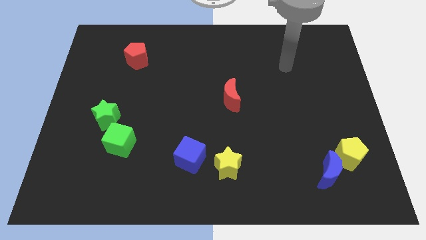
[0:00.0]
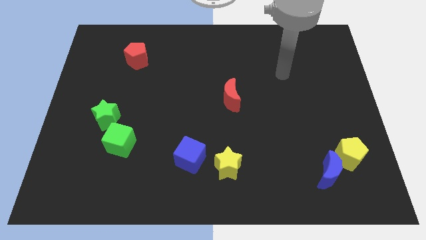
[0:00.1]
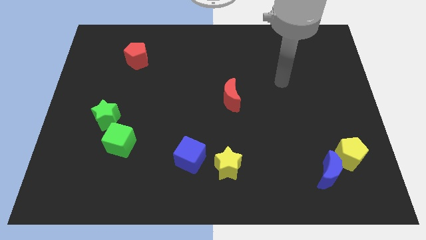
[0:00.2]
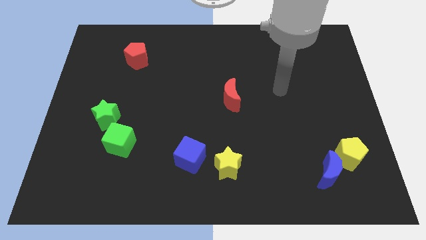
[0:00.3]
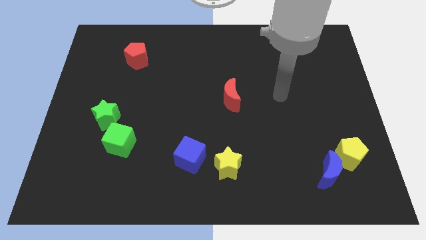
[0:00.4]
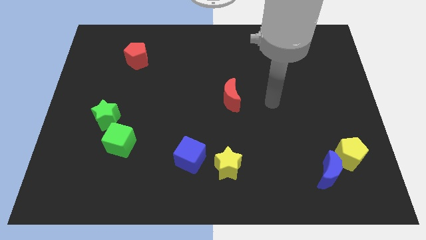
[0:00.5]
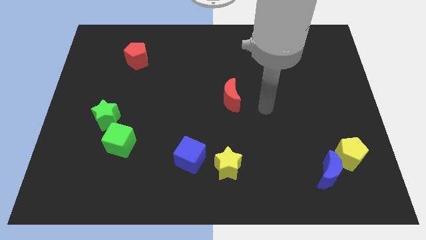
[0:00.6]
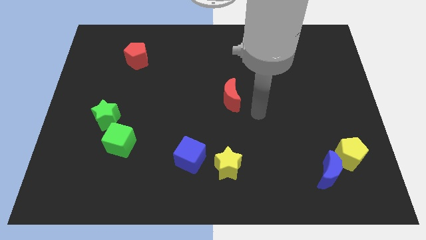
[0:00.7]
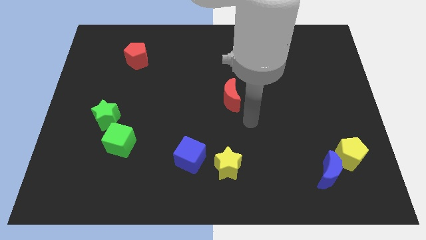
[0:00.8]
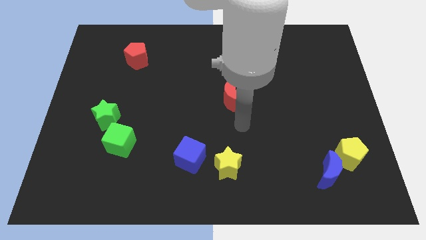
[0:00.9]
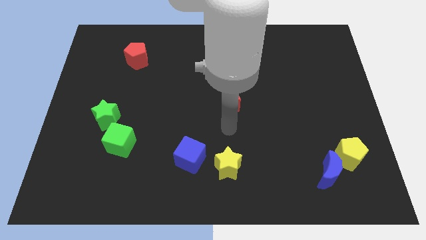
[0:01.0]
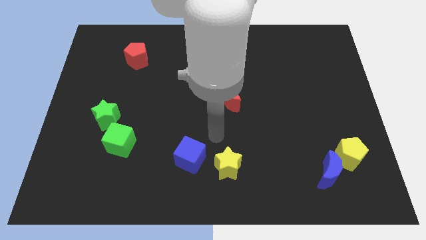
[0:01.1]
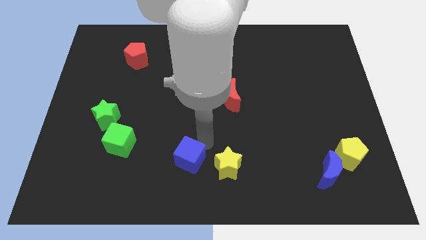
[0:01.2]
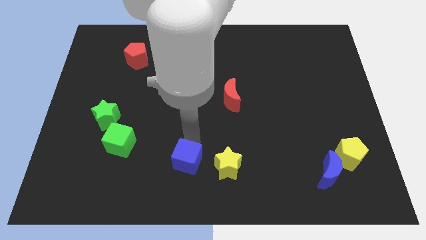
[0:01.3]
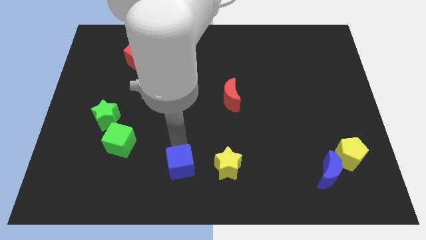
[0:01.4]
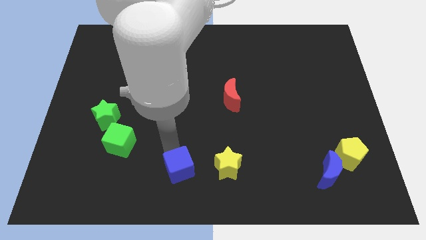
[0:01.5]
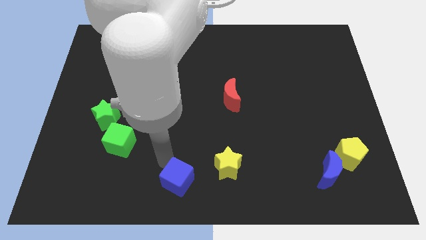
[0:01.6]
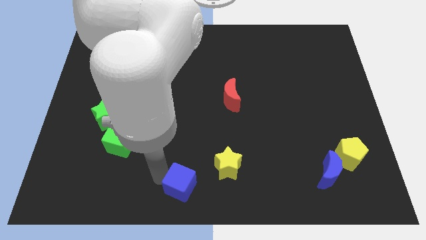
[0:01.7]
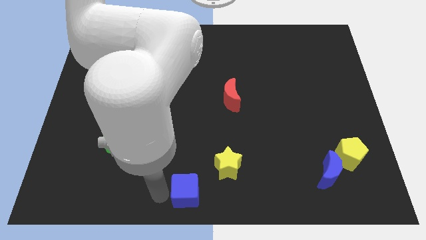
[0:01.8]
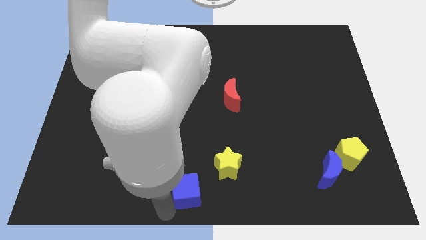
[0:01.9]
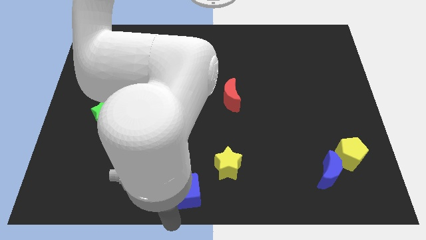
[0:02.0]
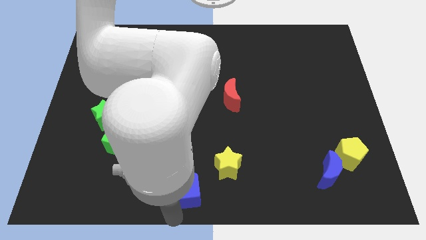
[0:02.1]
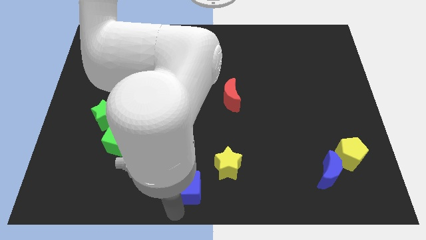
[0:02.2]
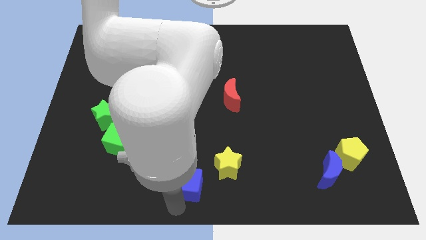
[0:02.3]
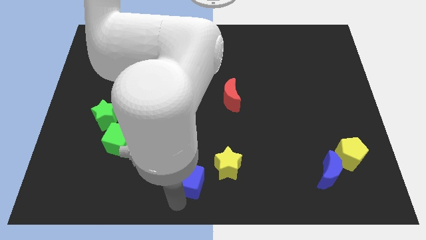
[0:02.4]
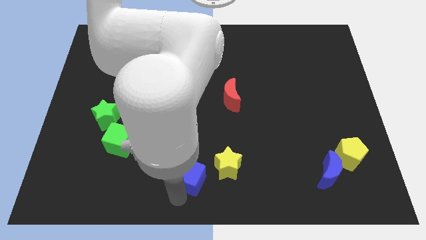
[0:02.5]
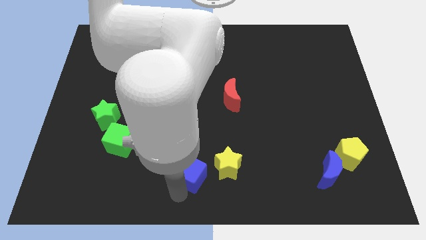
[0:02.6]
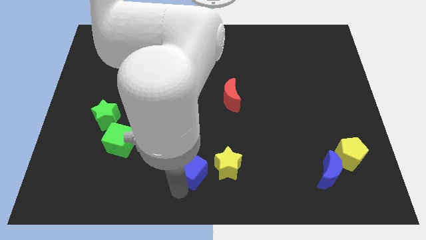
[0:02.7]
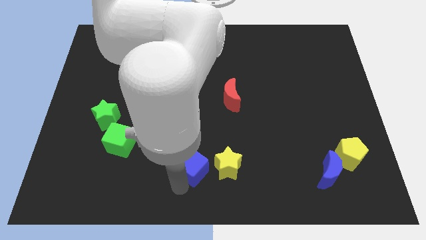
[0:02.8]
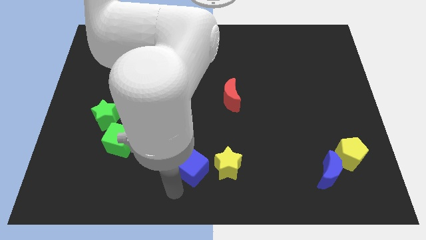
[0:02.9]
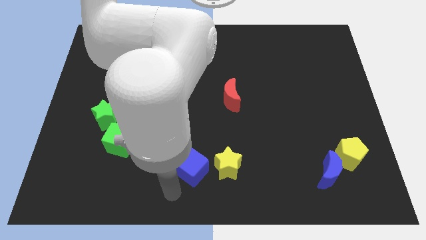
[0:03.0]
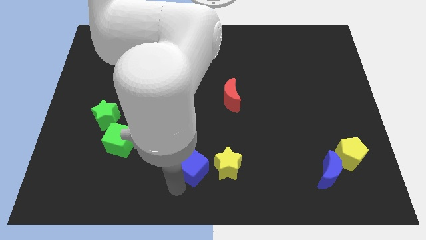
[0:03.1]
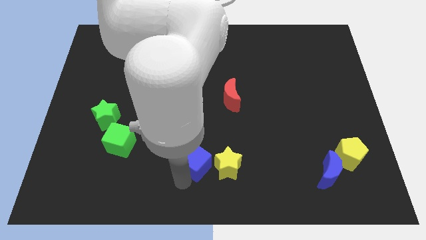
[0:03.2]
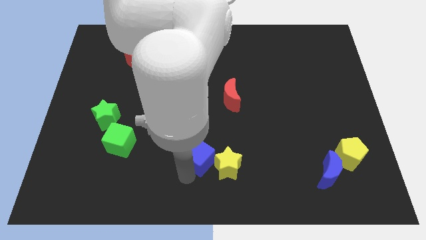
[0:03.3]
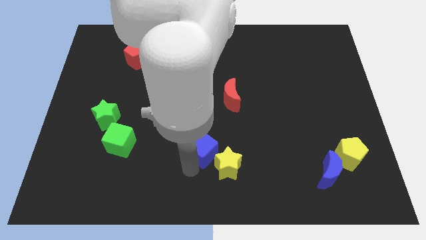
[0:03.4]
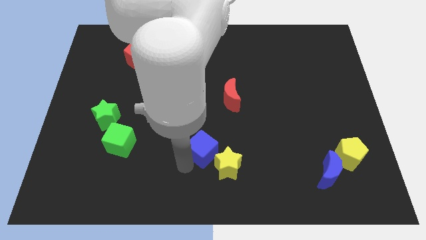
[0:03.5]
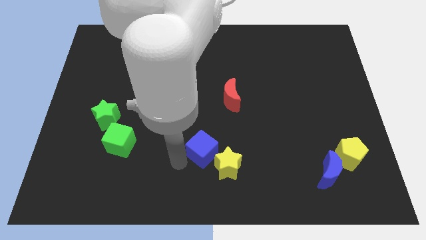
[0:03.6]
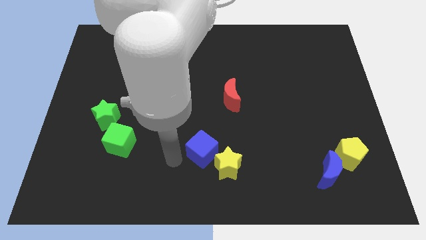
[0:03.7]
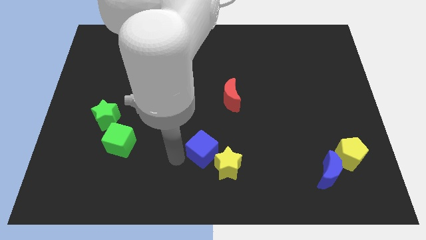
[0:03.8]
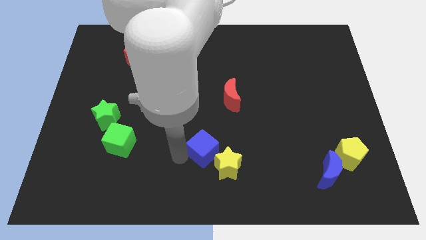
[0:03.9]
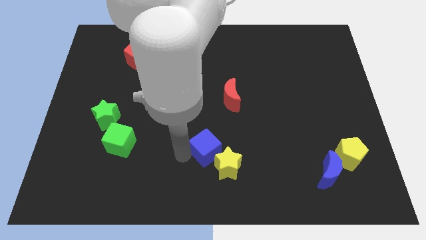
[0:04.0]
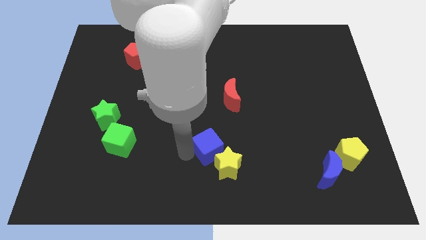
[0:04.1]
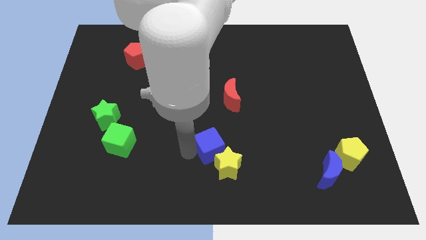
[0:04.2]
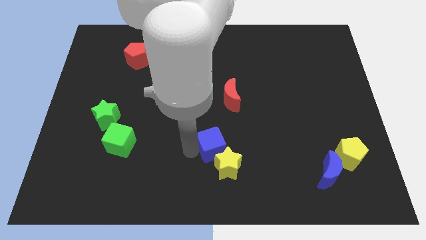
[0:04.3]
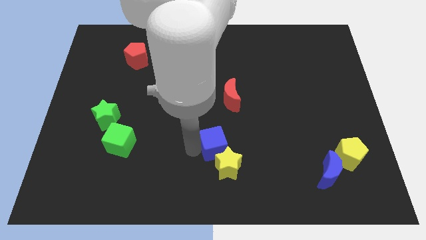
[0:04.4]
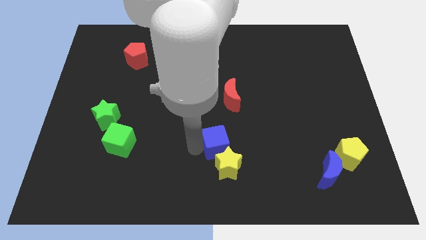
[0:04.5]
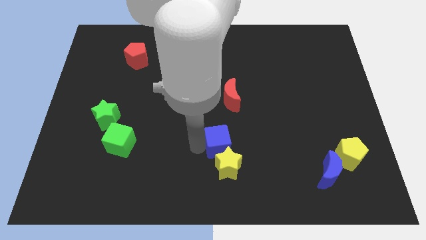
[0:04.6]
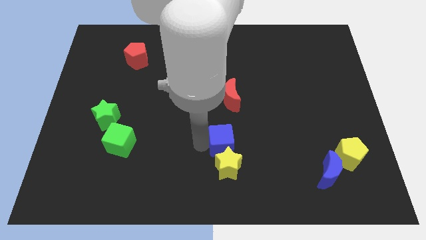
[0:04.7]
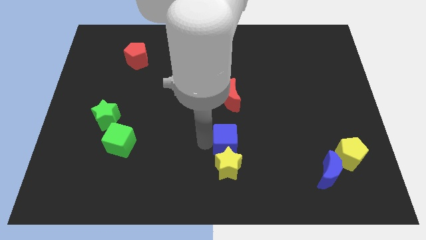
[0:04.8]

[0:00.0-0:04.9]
push the blue cube somewhat to the right

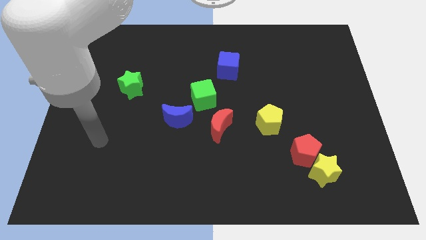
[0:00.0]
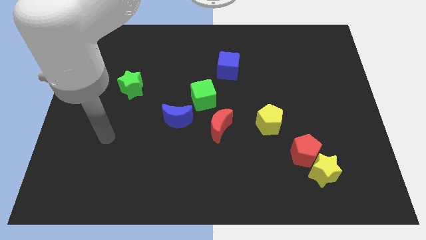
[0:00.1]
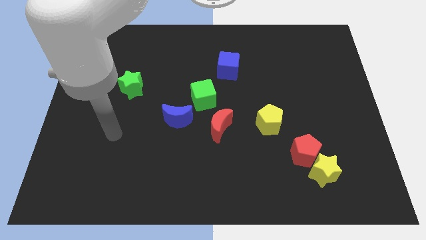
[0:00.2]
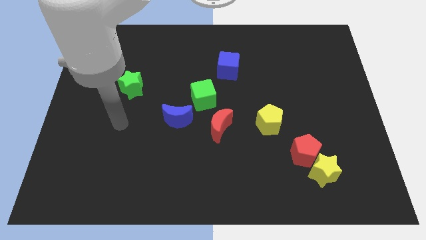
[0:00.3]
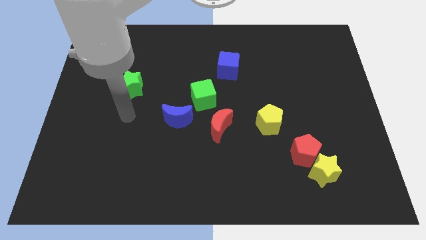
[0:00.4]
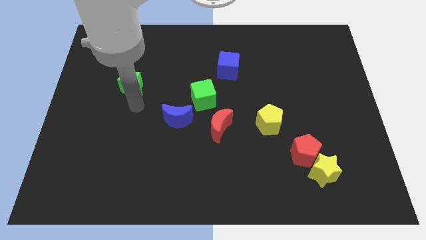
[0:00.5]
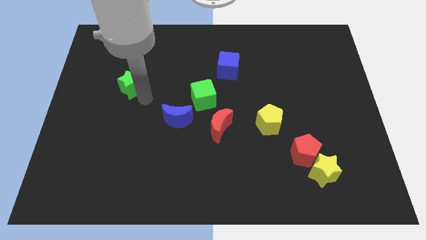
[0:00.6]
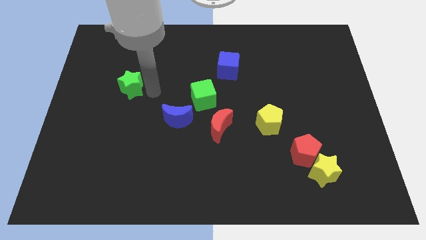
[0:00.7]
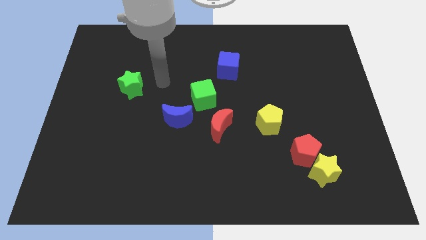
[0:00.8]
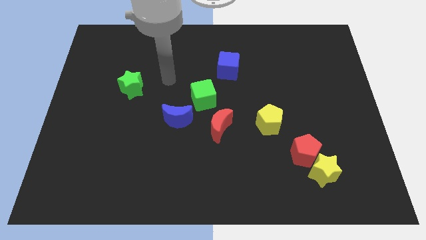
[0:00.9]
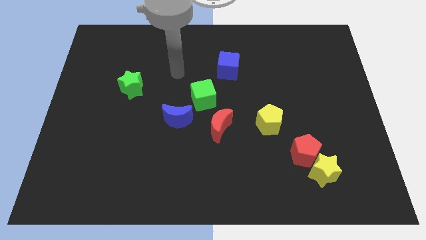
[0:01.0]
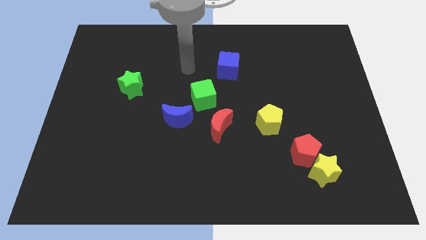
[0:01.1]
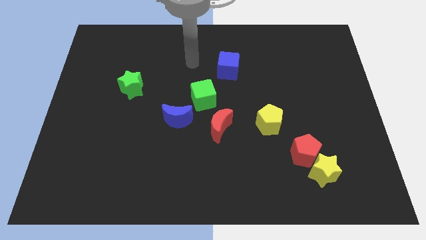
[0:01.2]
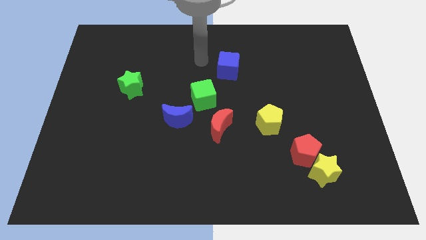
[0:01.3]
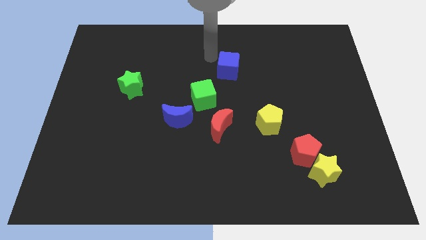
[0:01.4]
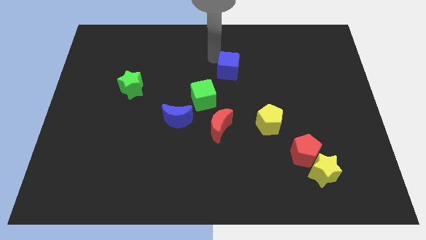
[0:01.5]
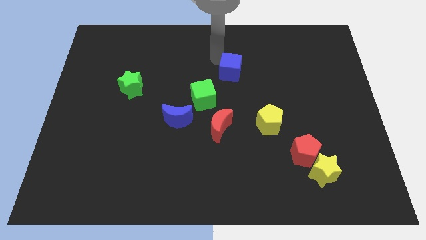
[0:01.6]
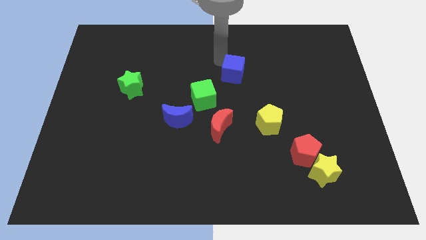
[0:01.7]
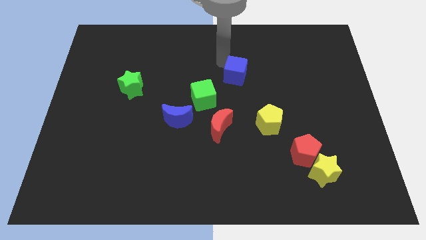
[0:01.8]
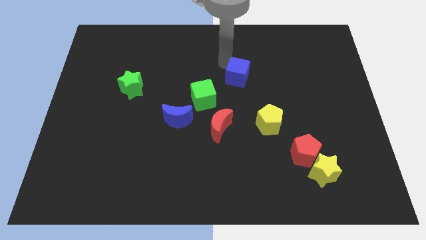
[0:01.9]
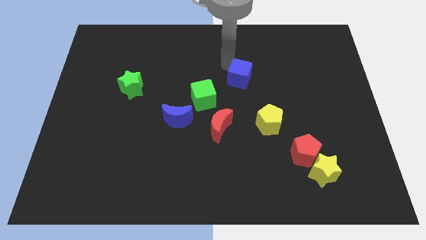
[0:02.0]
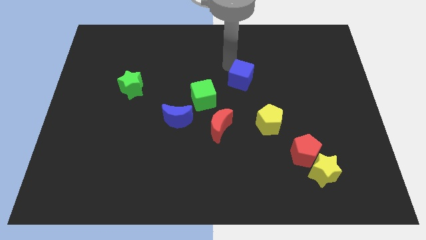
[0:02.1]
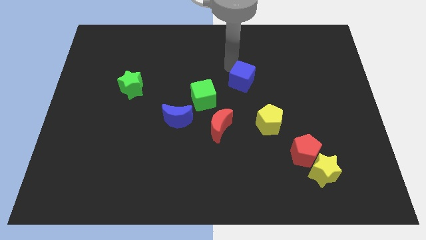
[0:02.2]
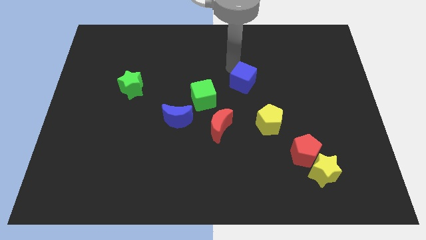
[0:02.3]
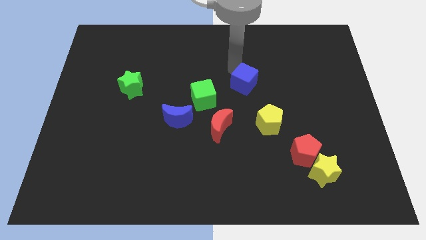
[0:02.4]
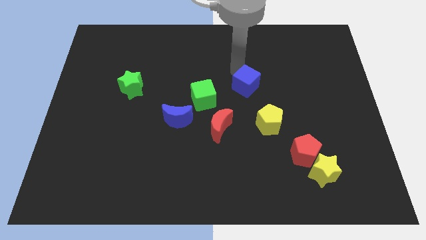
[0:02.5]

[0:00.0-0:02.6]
push the blue cube slightly diagonally down and right

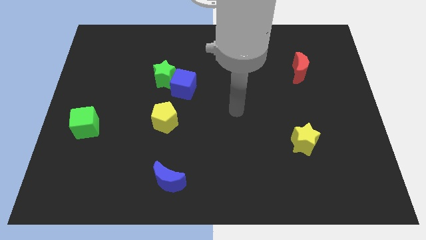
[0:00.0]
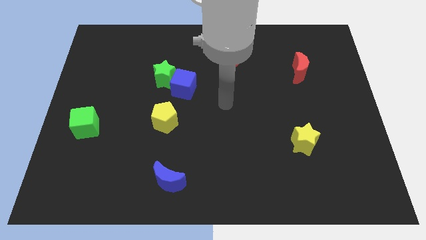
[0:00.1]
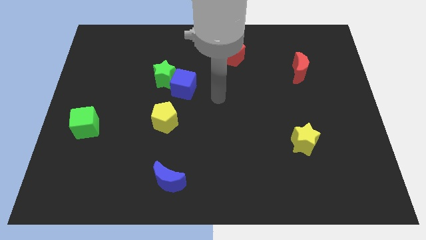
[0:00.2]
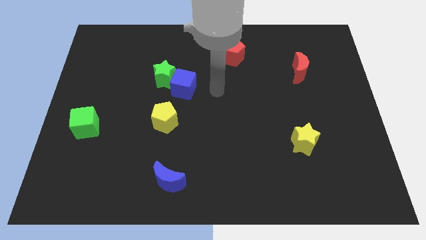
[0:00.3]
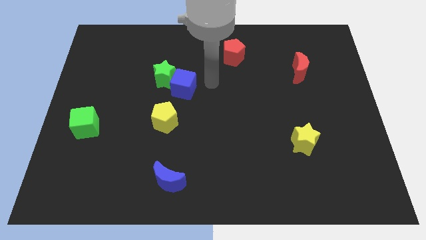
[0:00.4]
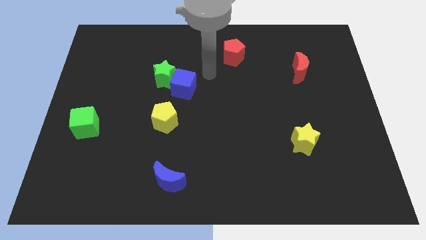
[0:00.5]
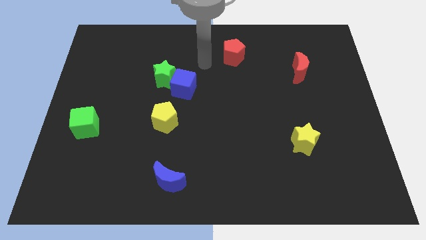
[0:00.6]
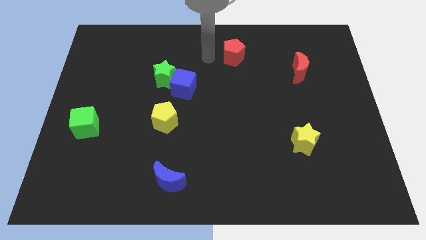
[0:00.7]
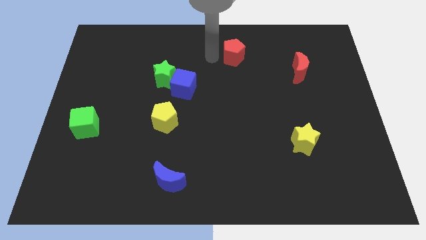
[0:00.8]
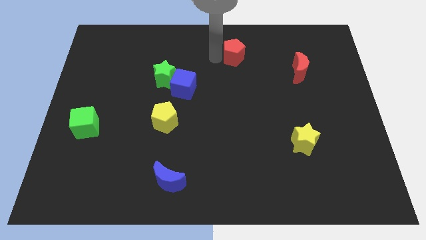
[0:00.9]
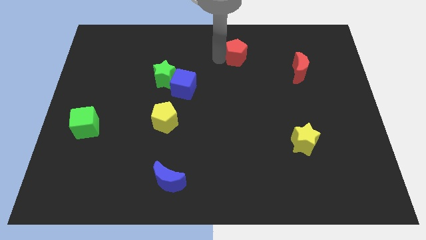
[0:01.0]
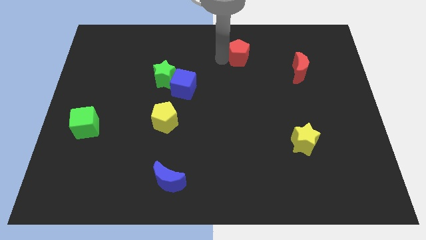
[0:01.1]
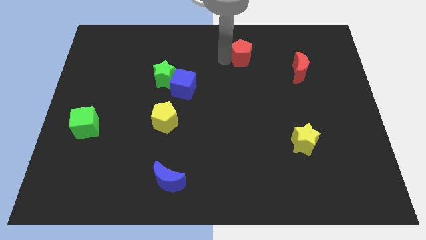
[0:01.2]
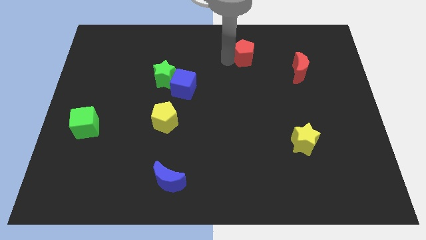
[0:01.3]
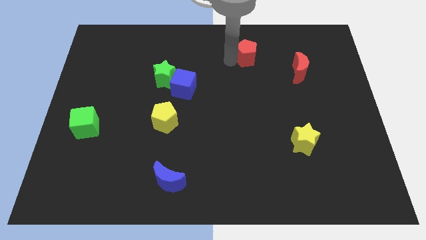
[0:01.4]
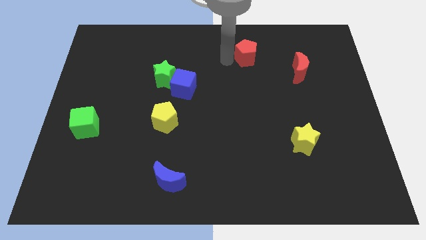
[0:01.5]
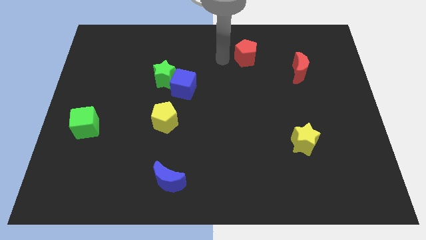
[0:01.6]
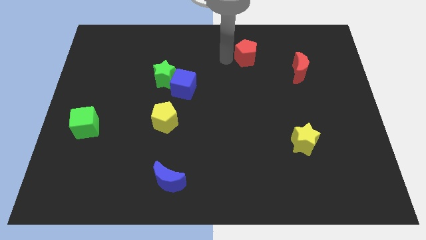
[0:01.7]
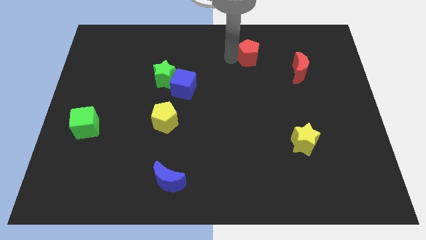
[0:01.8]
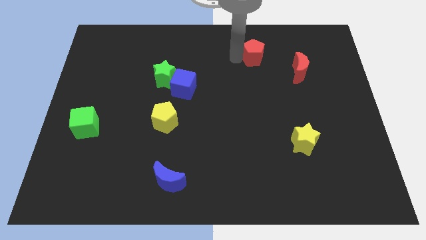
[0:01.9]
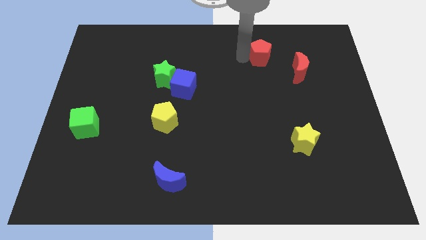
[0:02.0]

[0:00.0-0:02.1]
slide the red pentagon slightly right
